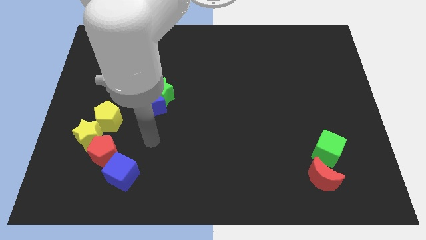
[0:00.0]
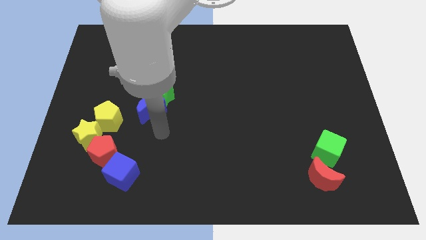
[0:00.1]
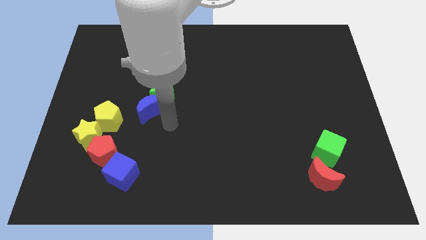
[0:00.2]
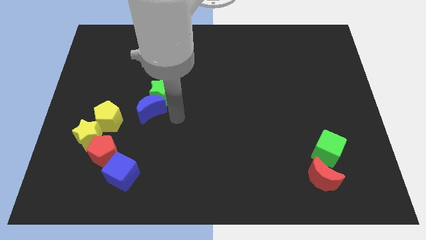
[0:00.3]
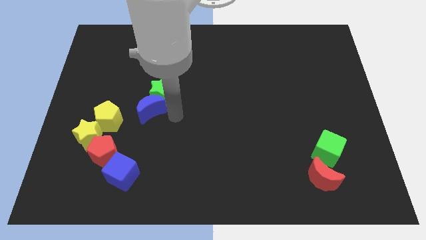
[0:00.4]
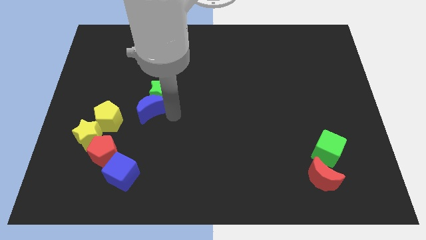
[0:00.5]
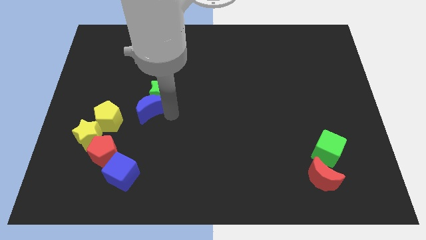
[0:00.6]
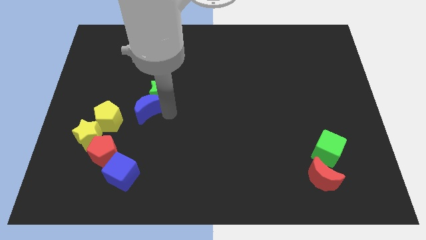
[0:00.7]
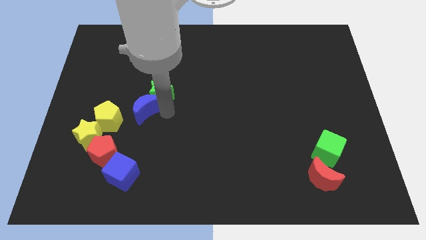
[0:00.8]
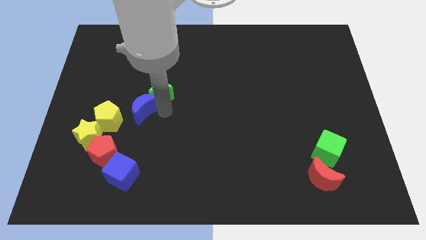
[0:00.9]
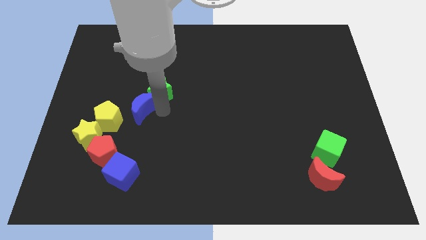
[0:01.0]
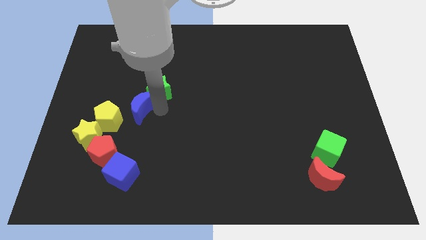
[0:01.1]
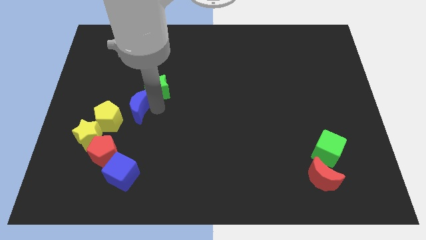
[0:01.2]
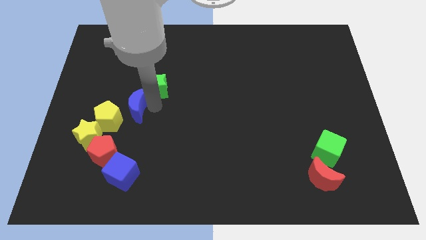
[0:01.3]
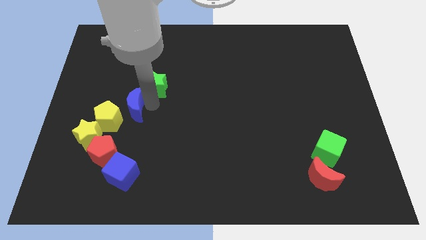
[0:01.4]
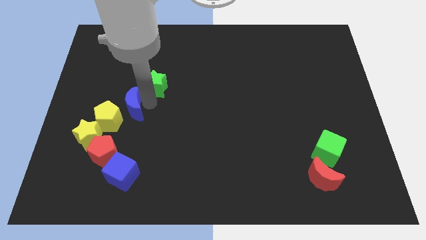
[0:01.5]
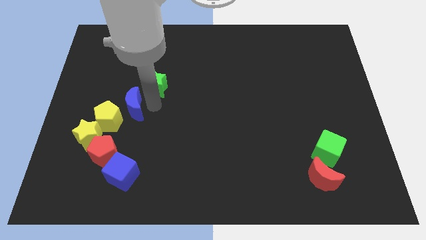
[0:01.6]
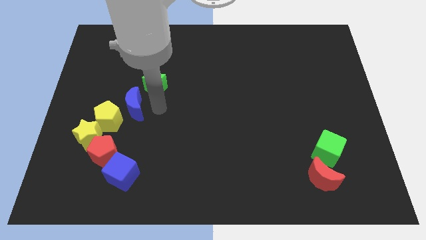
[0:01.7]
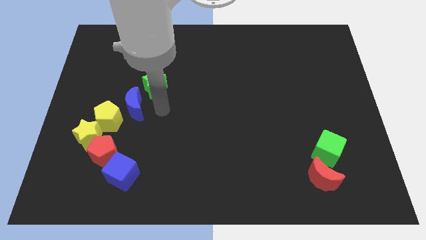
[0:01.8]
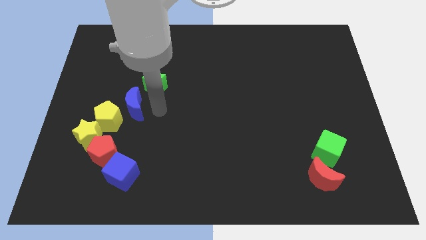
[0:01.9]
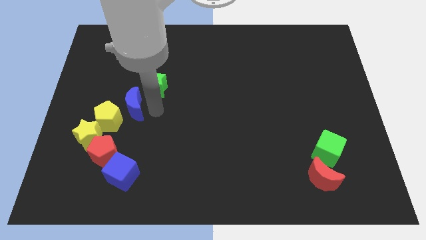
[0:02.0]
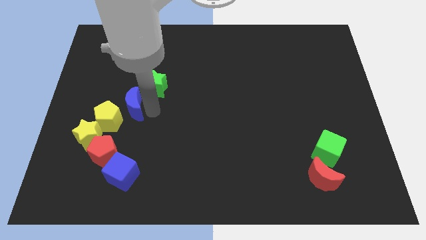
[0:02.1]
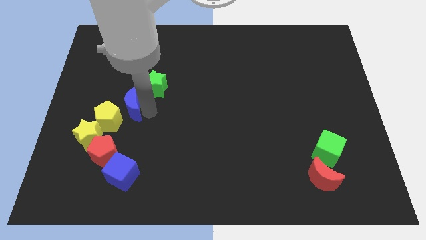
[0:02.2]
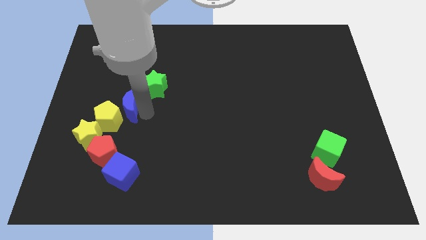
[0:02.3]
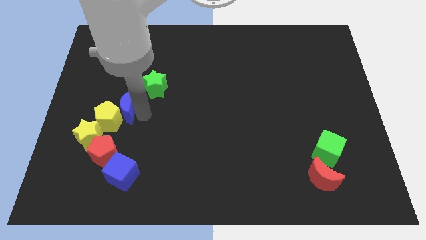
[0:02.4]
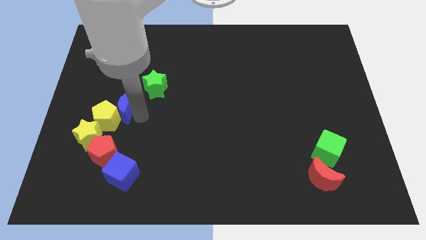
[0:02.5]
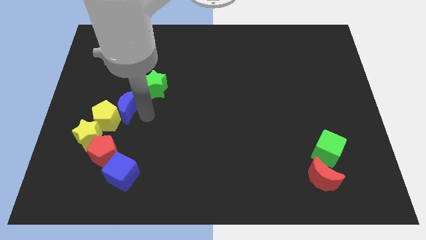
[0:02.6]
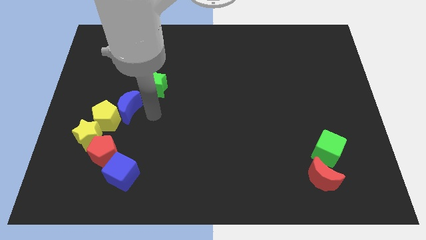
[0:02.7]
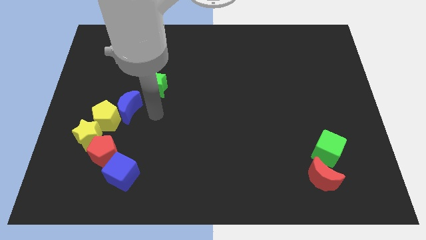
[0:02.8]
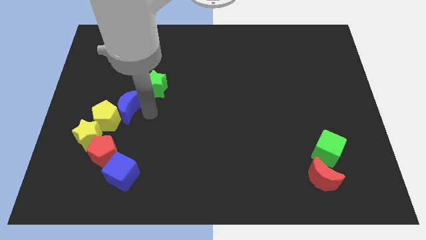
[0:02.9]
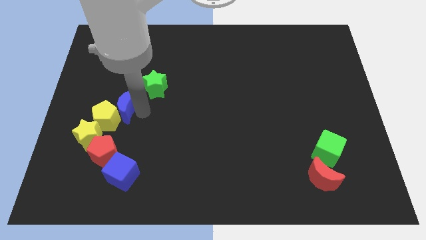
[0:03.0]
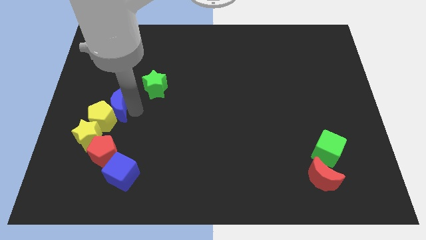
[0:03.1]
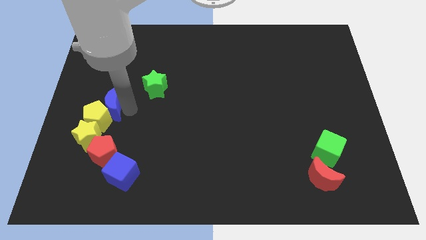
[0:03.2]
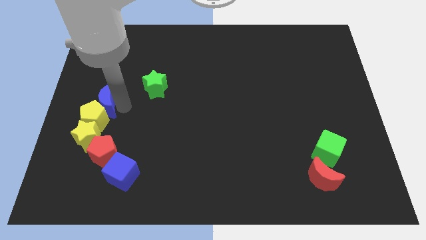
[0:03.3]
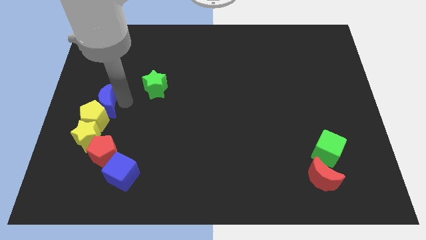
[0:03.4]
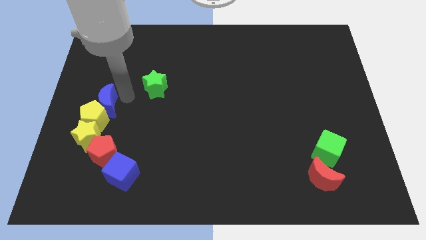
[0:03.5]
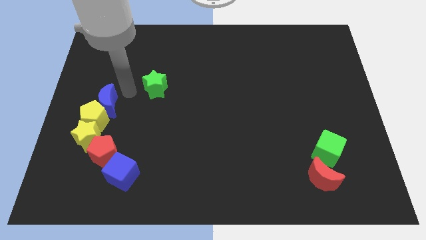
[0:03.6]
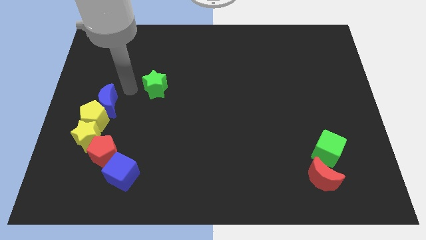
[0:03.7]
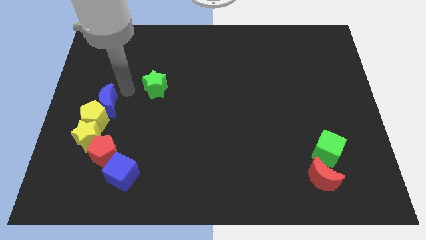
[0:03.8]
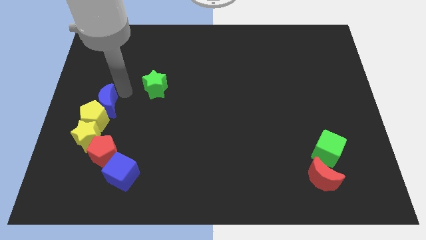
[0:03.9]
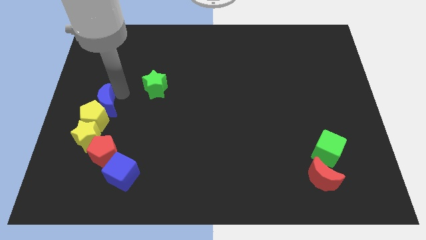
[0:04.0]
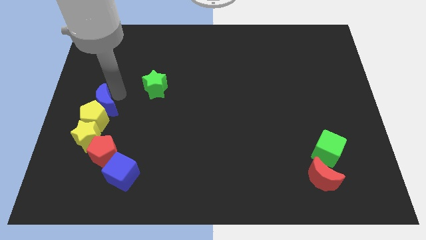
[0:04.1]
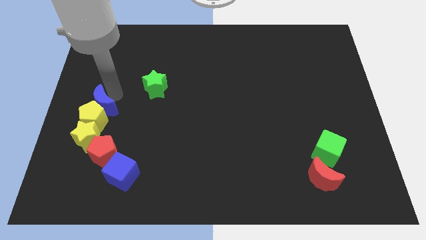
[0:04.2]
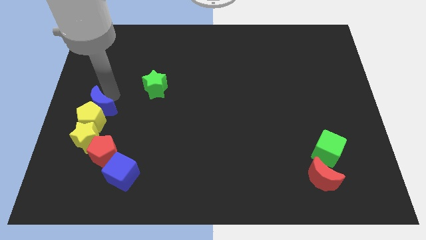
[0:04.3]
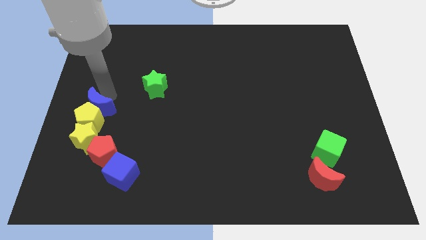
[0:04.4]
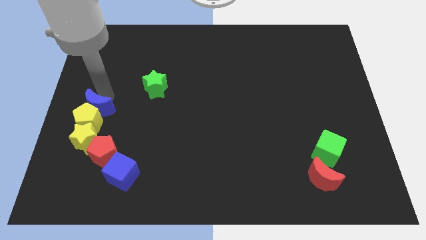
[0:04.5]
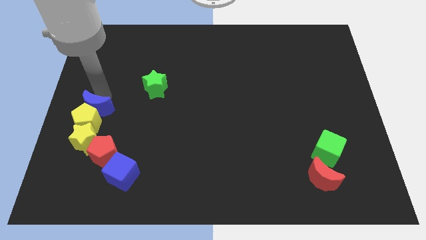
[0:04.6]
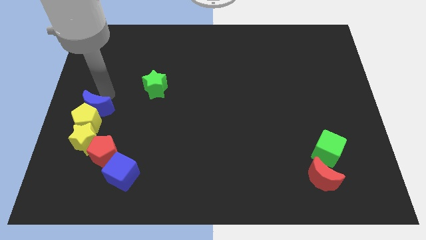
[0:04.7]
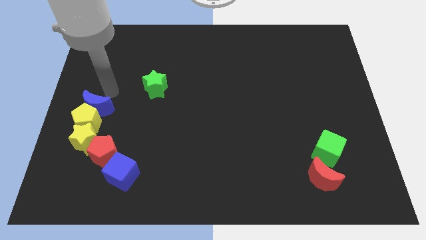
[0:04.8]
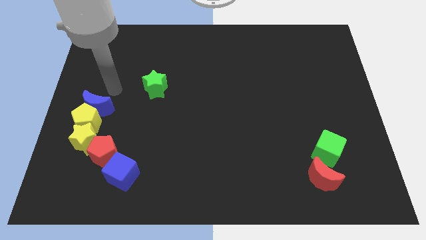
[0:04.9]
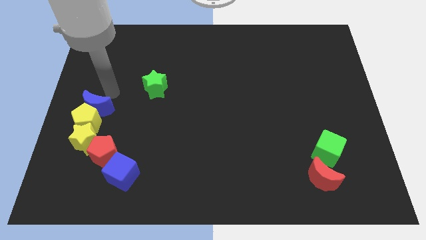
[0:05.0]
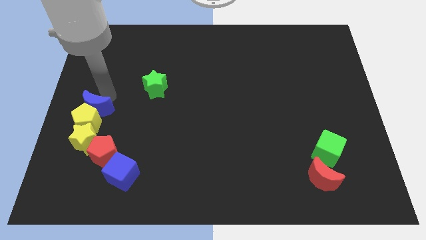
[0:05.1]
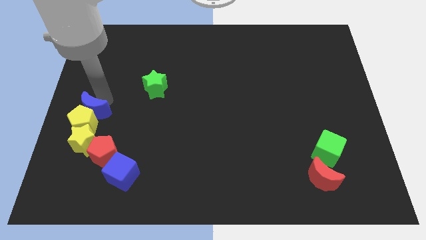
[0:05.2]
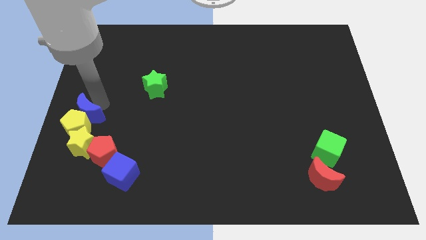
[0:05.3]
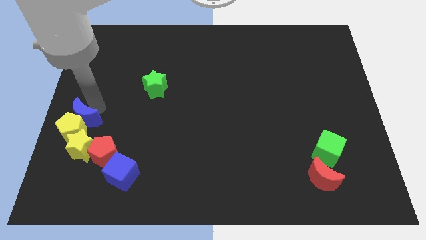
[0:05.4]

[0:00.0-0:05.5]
push the blue moon a little downwards and left diagonally

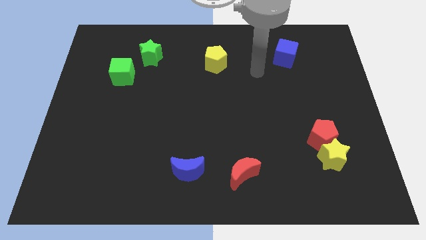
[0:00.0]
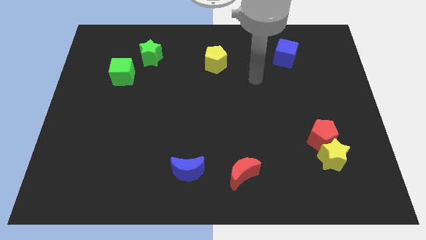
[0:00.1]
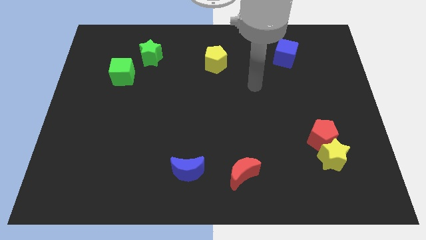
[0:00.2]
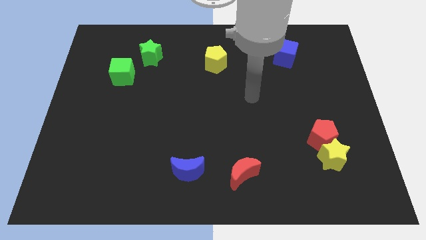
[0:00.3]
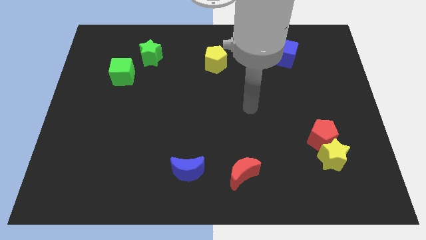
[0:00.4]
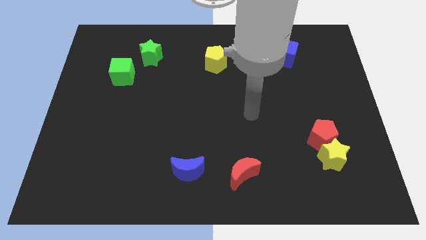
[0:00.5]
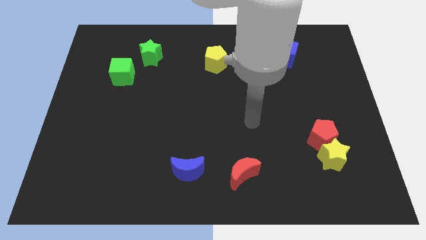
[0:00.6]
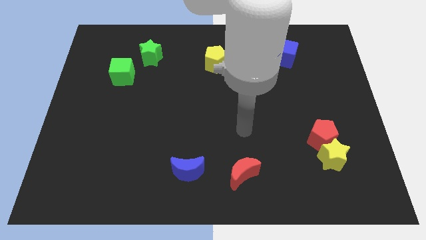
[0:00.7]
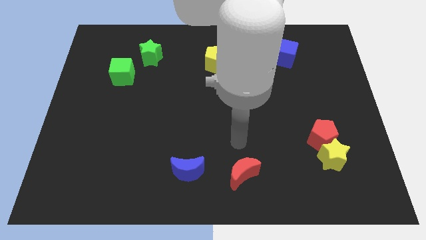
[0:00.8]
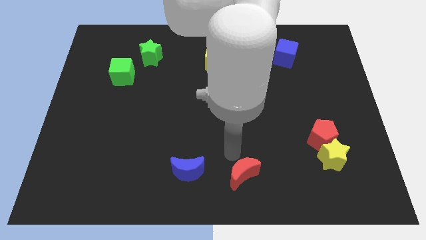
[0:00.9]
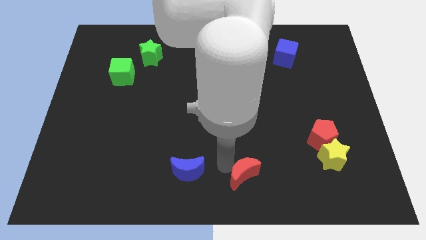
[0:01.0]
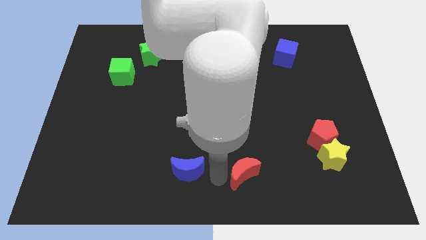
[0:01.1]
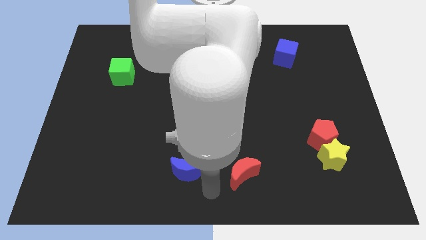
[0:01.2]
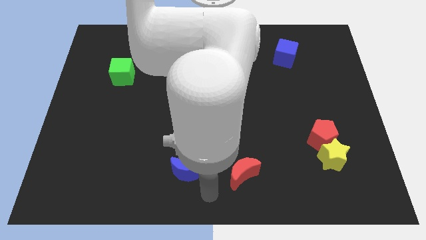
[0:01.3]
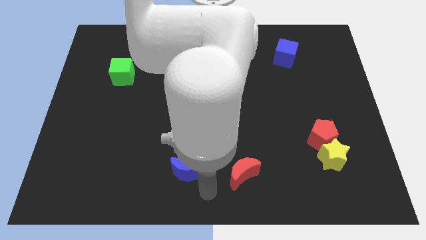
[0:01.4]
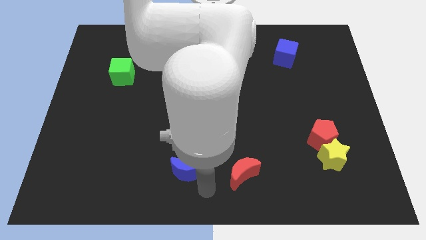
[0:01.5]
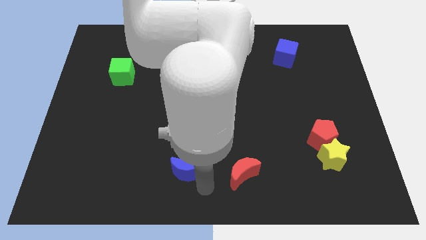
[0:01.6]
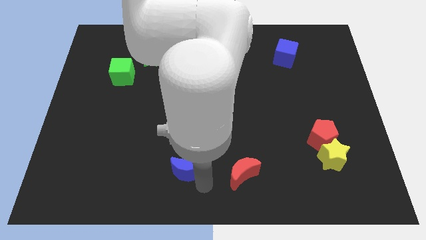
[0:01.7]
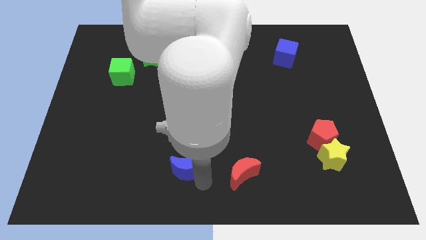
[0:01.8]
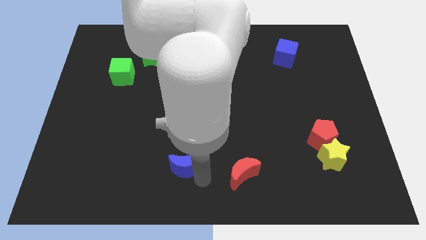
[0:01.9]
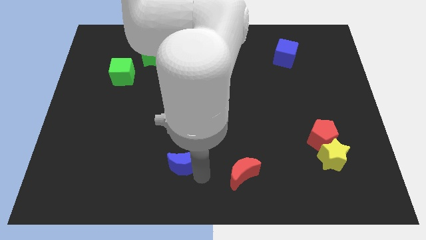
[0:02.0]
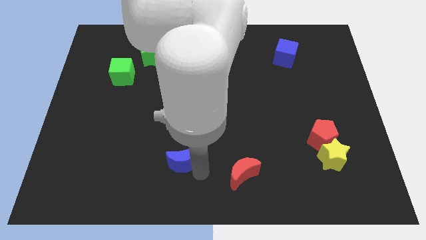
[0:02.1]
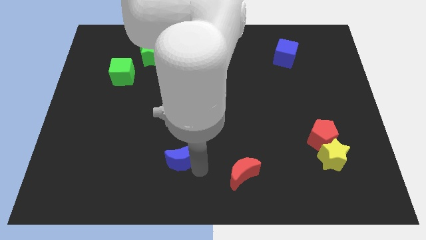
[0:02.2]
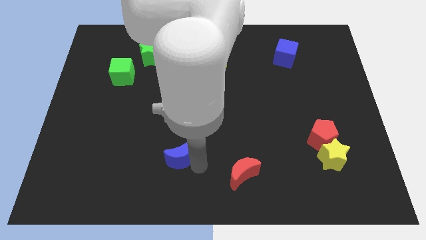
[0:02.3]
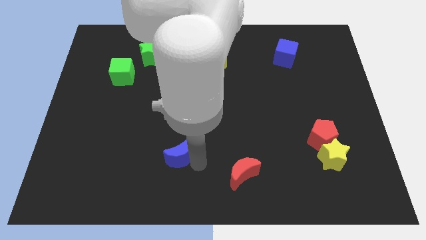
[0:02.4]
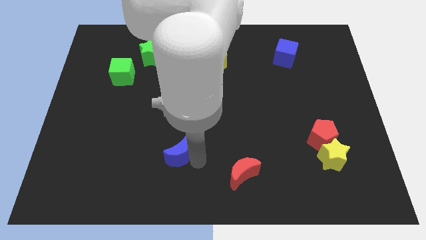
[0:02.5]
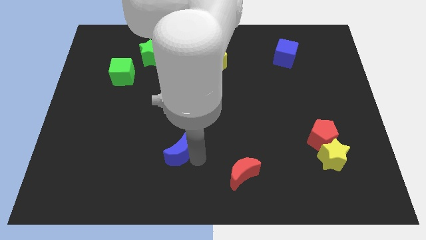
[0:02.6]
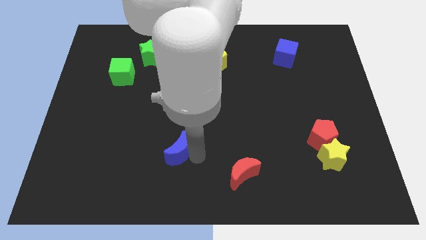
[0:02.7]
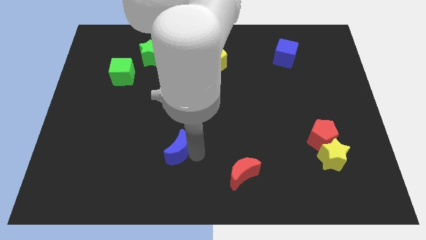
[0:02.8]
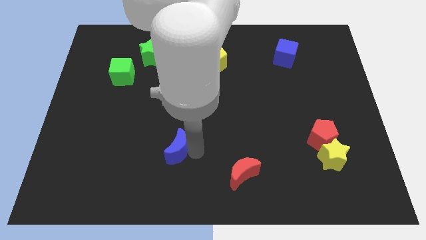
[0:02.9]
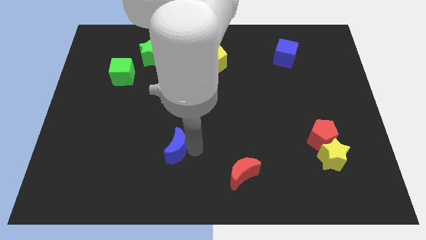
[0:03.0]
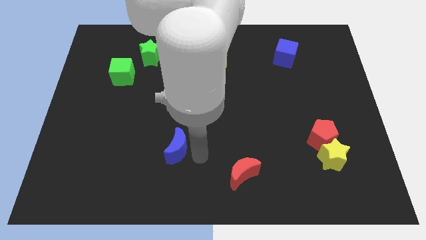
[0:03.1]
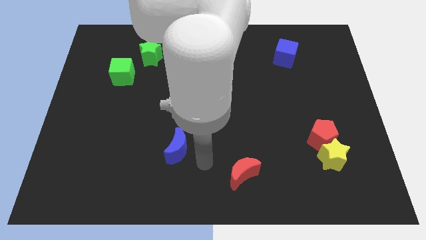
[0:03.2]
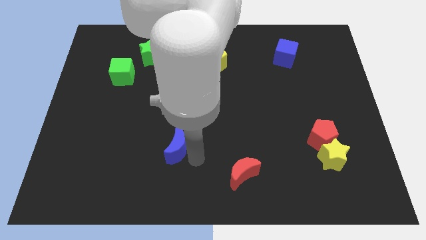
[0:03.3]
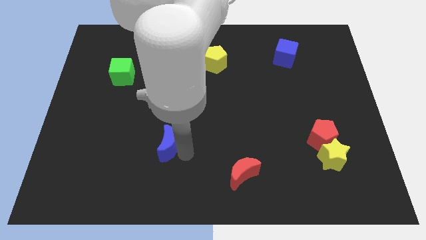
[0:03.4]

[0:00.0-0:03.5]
move the blue moon upwards and to the left diagonally a bit
